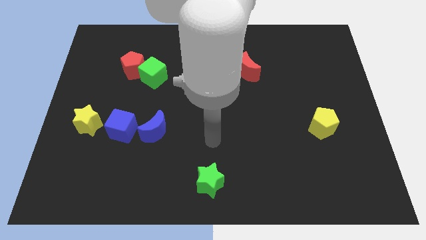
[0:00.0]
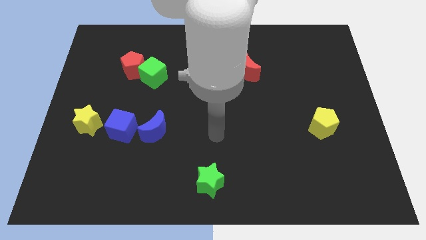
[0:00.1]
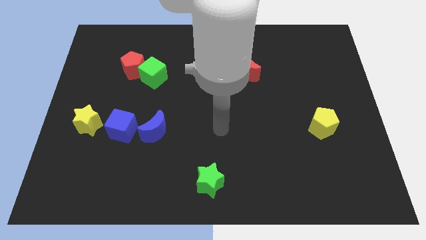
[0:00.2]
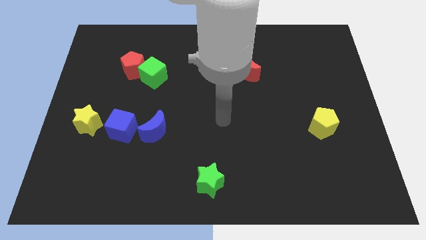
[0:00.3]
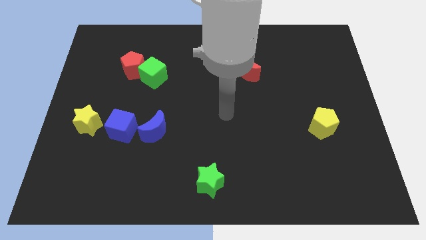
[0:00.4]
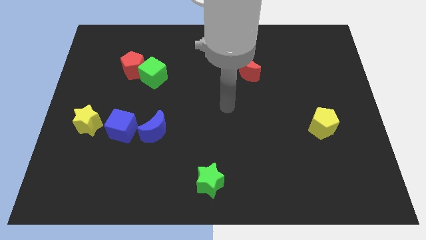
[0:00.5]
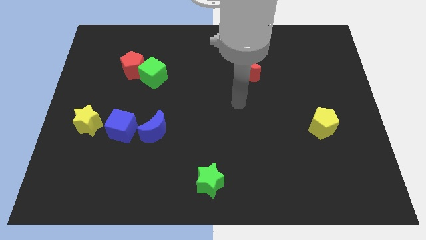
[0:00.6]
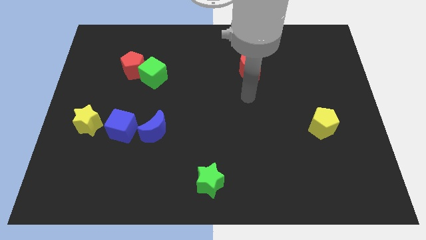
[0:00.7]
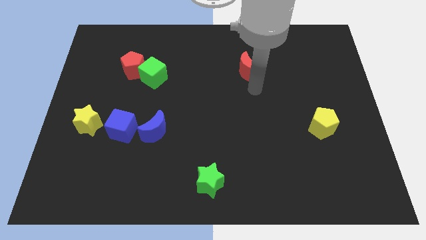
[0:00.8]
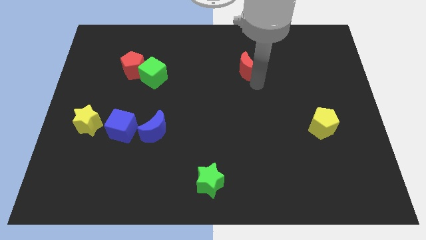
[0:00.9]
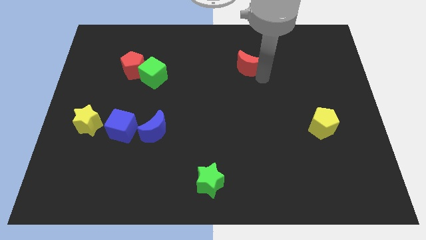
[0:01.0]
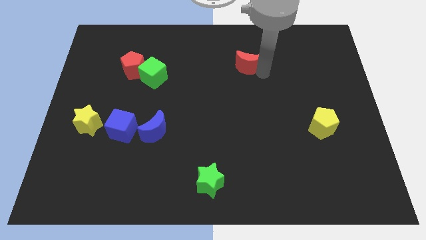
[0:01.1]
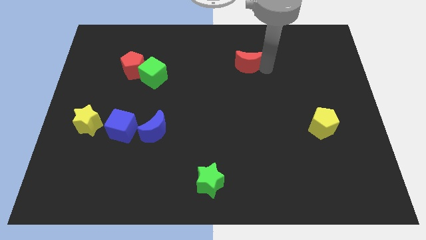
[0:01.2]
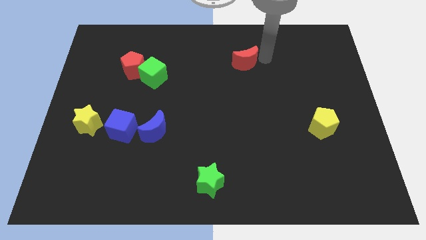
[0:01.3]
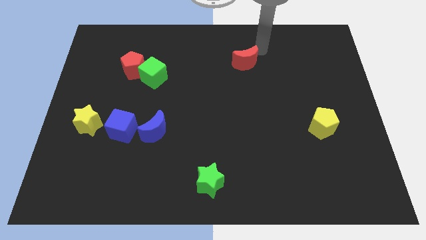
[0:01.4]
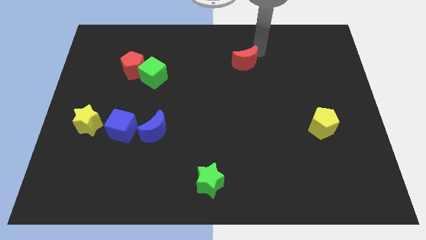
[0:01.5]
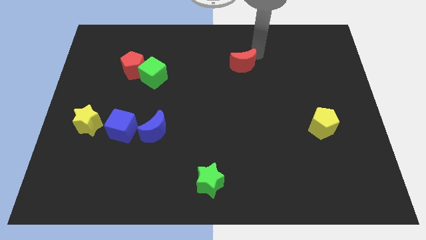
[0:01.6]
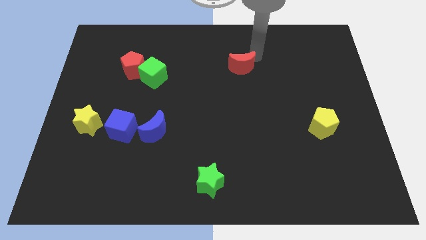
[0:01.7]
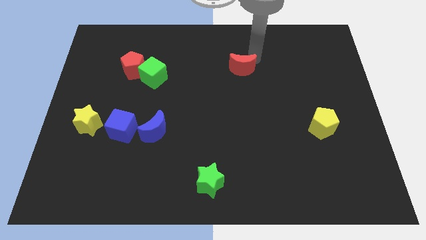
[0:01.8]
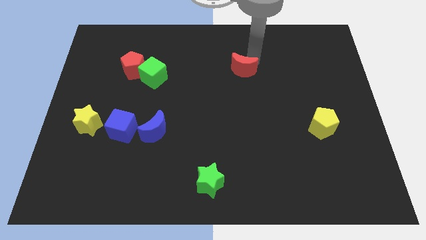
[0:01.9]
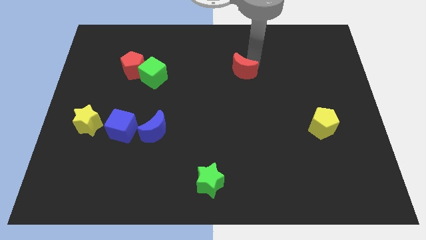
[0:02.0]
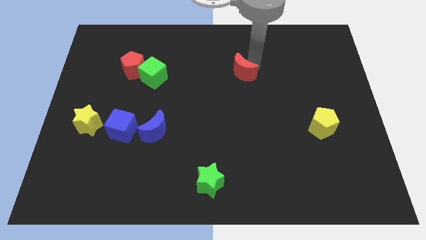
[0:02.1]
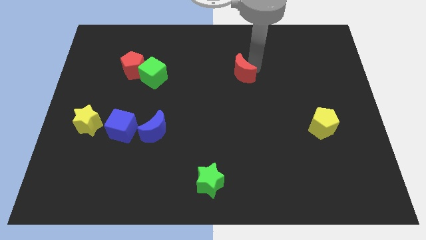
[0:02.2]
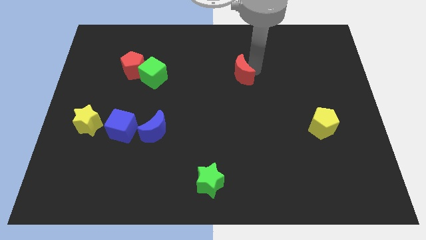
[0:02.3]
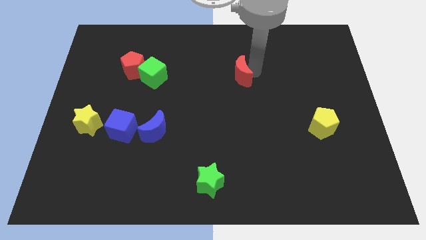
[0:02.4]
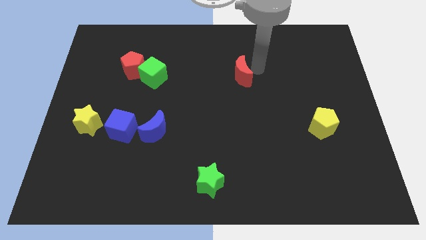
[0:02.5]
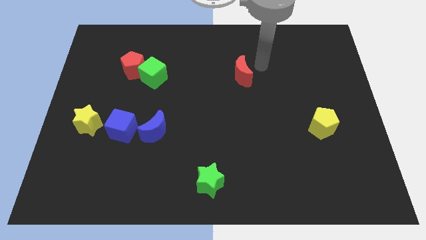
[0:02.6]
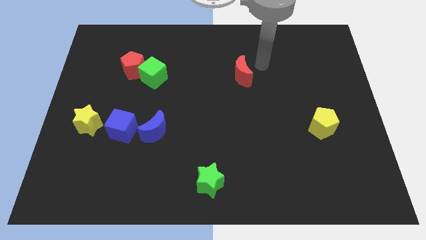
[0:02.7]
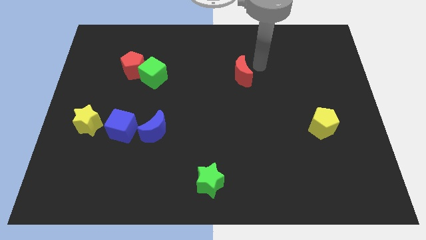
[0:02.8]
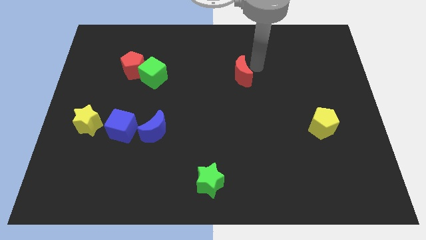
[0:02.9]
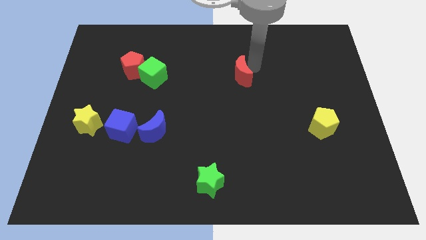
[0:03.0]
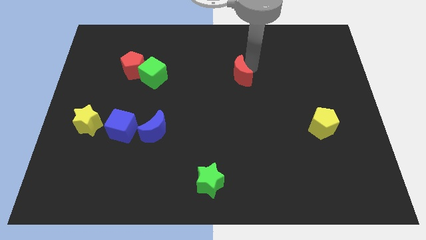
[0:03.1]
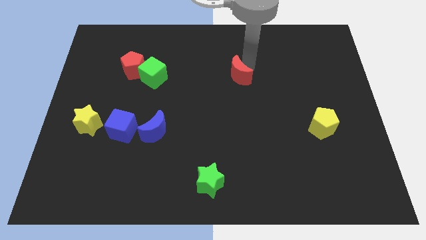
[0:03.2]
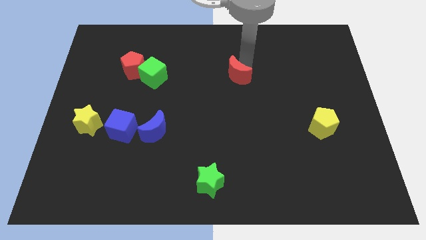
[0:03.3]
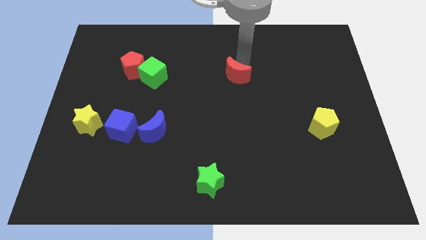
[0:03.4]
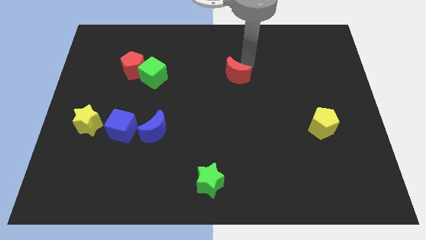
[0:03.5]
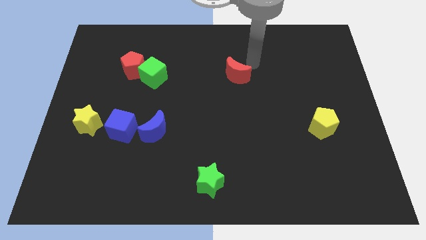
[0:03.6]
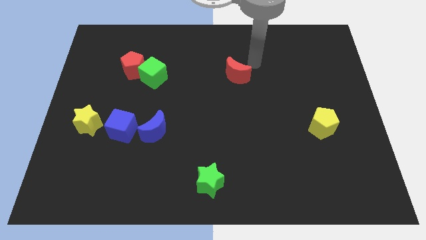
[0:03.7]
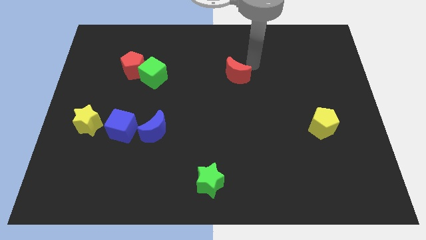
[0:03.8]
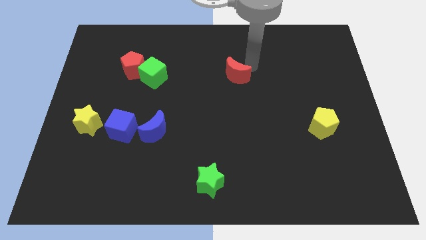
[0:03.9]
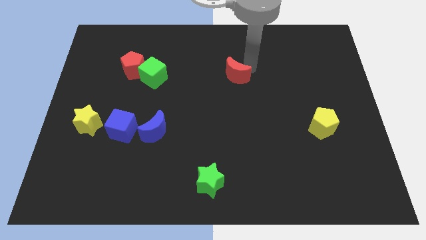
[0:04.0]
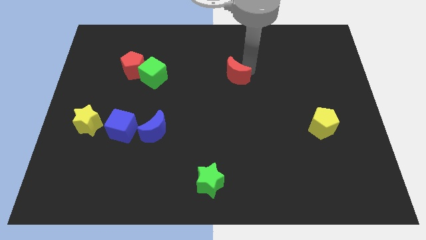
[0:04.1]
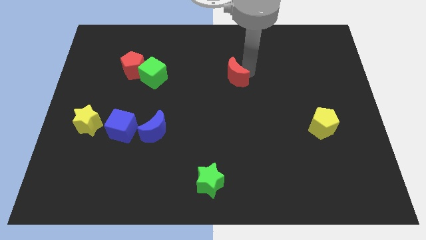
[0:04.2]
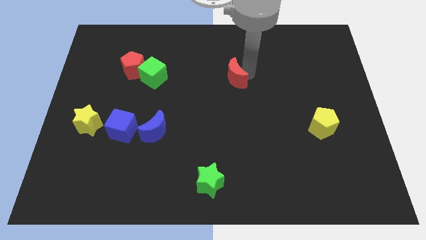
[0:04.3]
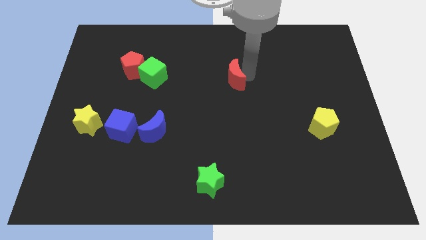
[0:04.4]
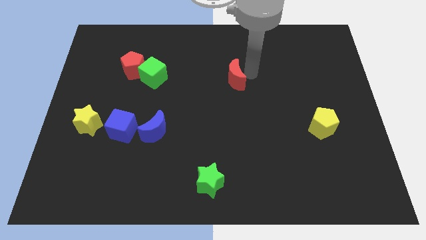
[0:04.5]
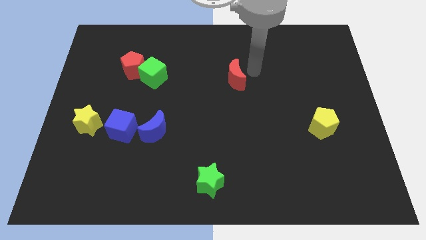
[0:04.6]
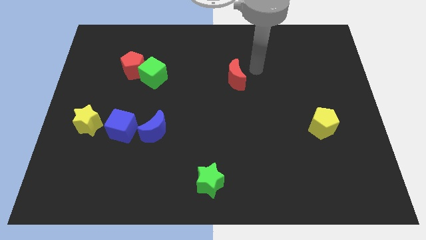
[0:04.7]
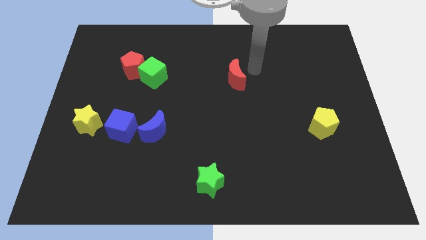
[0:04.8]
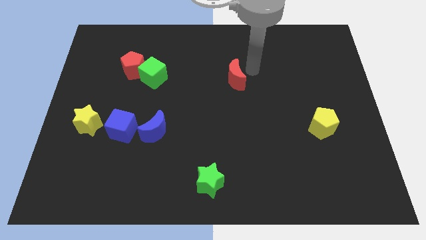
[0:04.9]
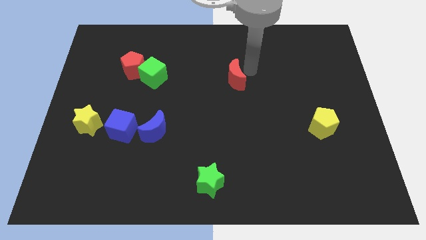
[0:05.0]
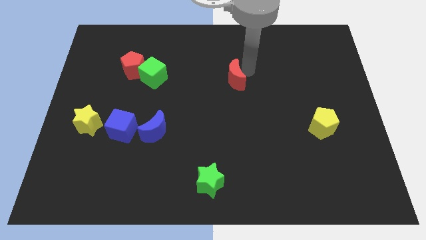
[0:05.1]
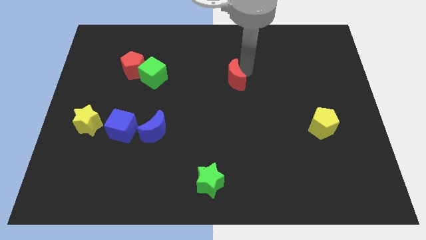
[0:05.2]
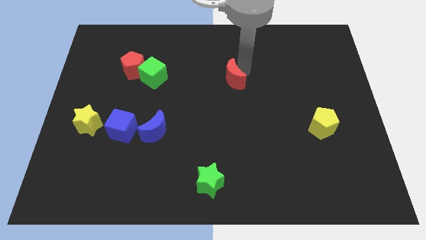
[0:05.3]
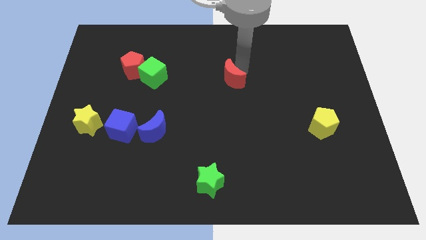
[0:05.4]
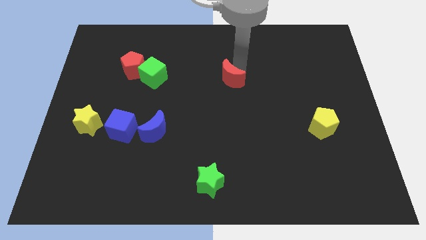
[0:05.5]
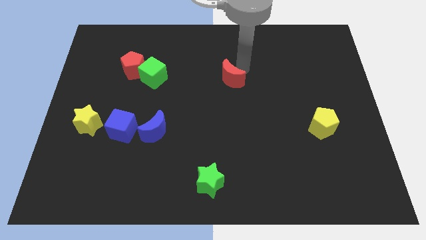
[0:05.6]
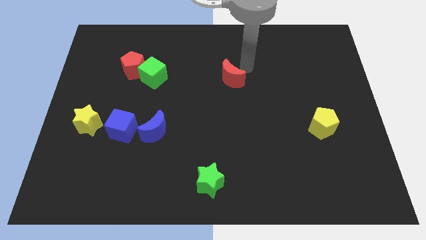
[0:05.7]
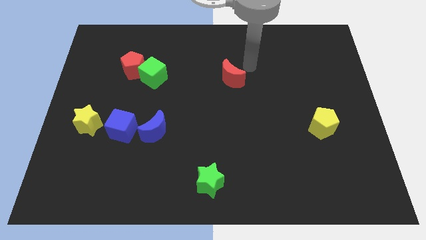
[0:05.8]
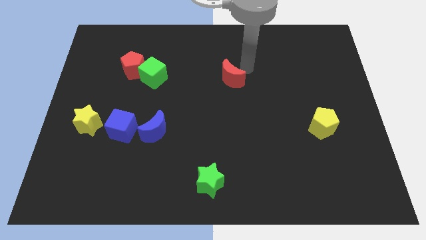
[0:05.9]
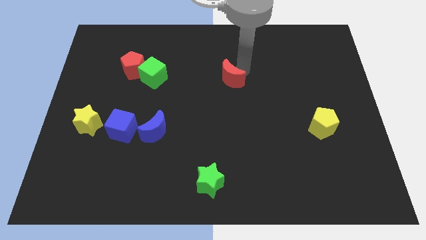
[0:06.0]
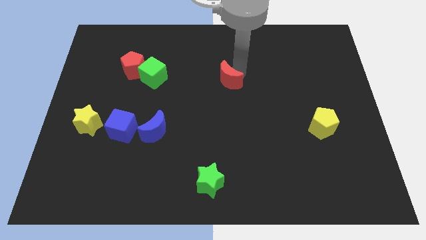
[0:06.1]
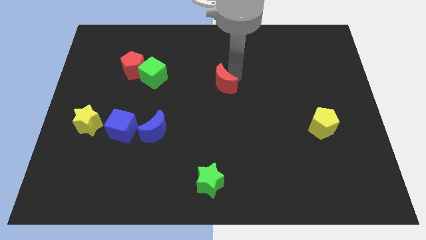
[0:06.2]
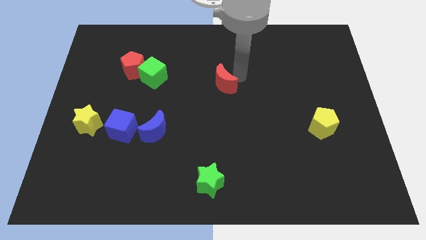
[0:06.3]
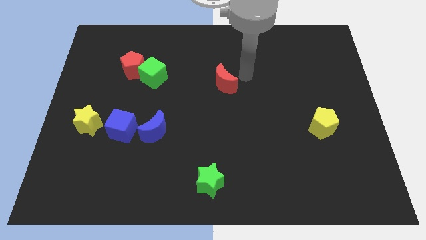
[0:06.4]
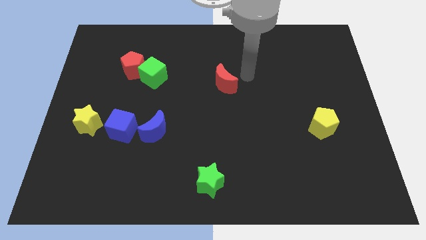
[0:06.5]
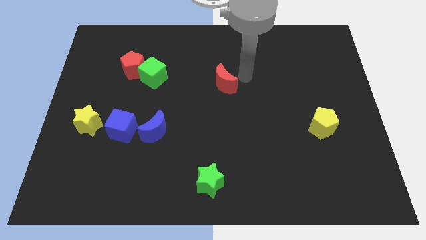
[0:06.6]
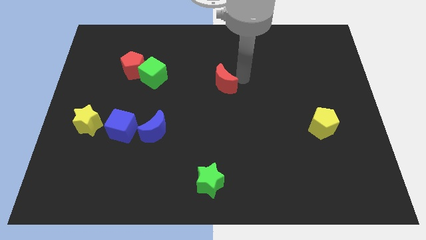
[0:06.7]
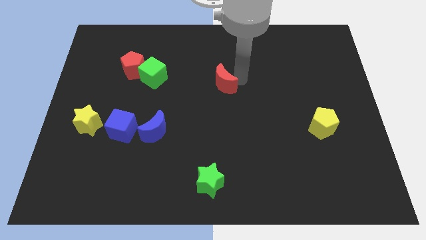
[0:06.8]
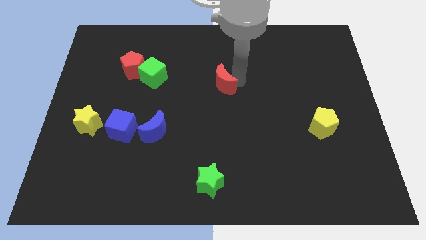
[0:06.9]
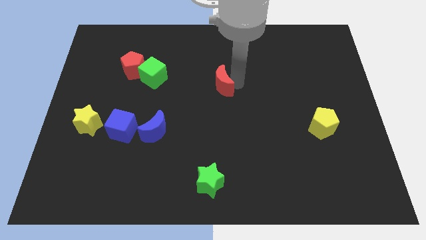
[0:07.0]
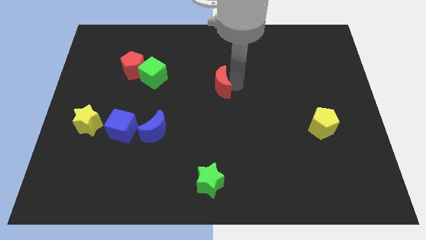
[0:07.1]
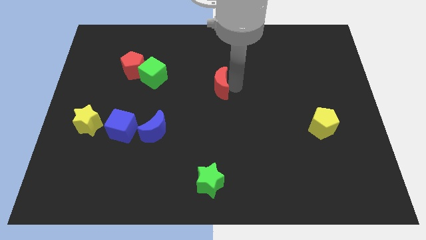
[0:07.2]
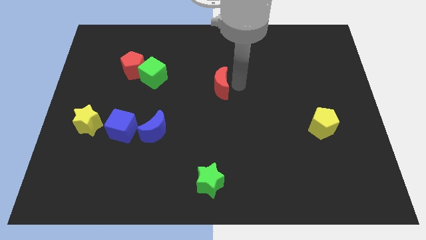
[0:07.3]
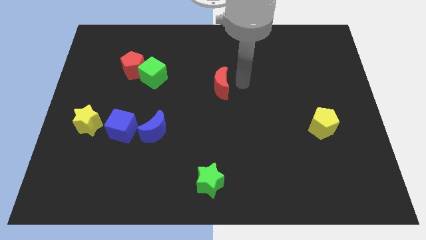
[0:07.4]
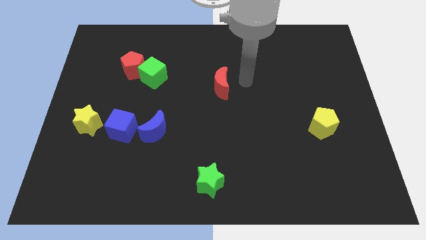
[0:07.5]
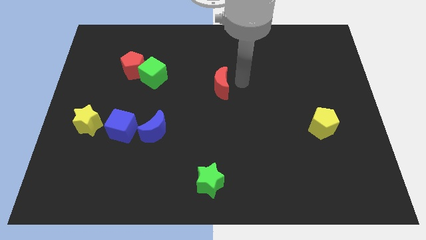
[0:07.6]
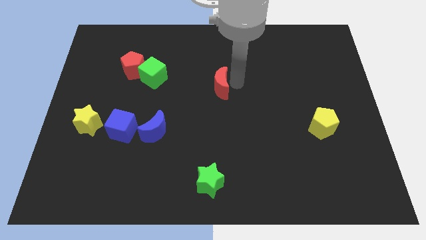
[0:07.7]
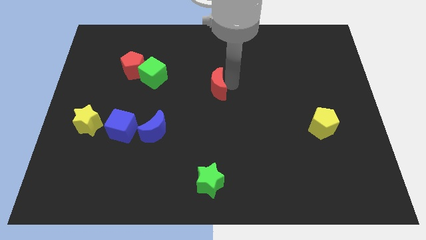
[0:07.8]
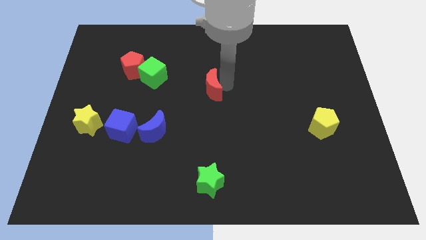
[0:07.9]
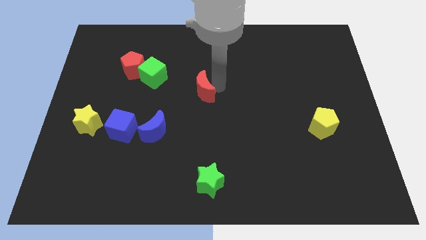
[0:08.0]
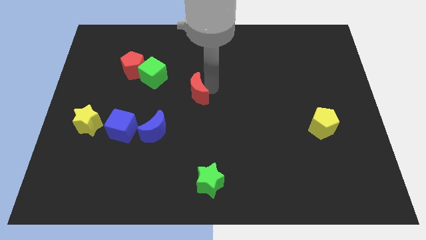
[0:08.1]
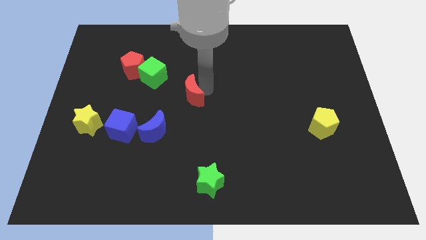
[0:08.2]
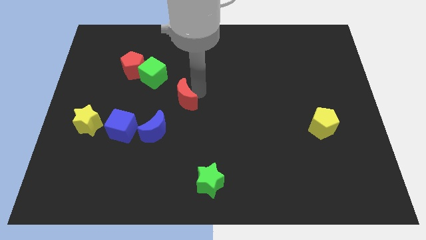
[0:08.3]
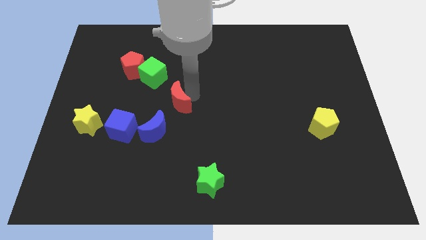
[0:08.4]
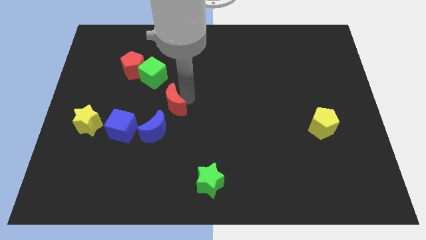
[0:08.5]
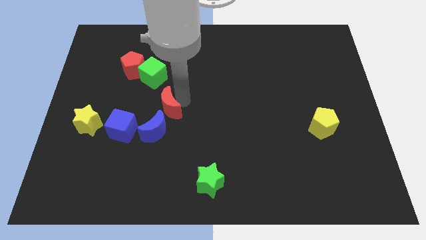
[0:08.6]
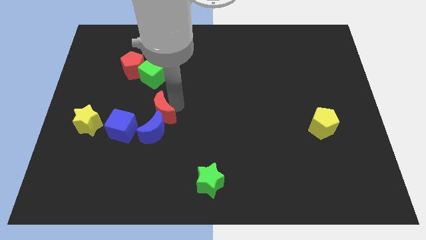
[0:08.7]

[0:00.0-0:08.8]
slide the red moon to the top left side of the blue moon
